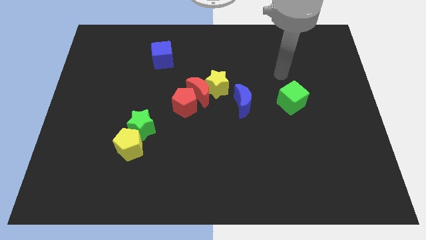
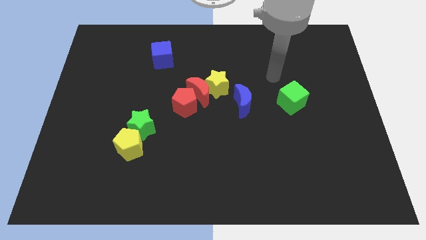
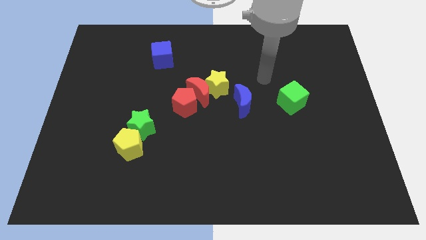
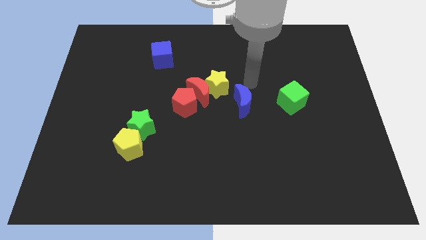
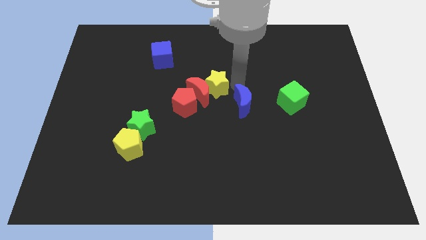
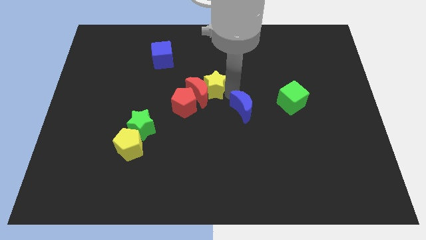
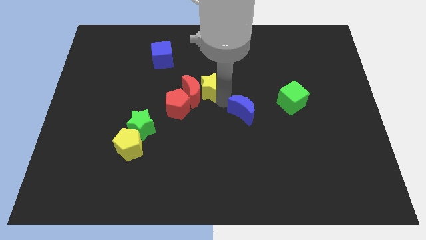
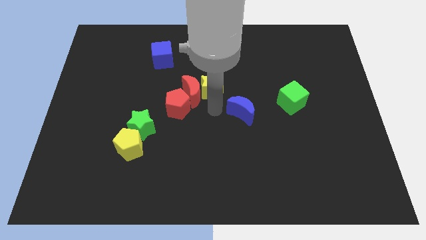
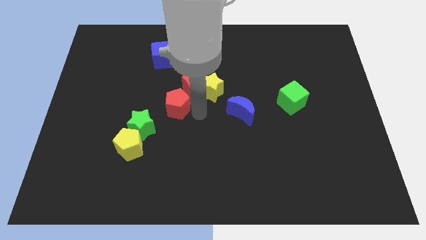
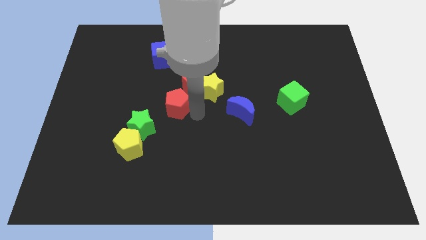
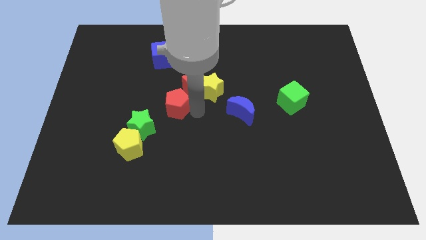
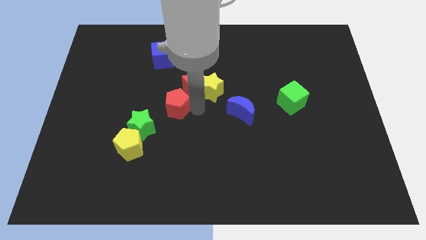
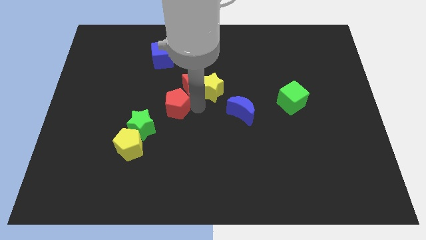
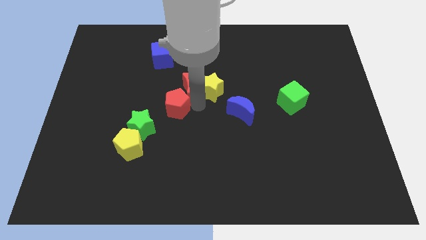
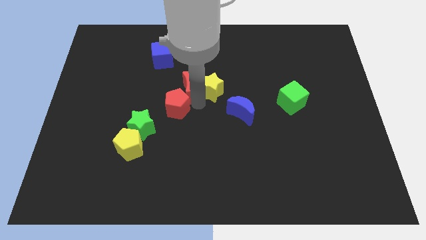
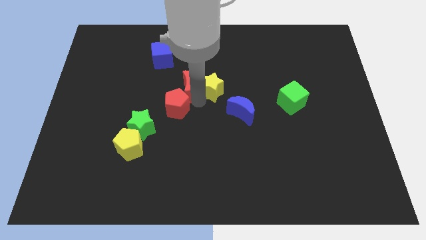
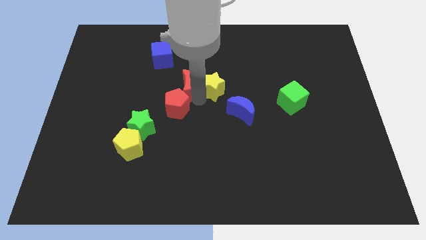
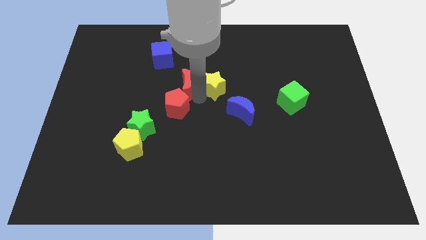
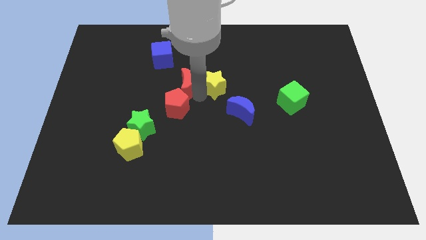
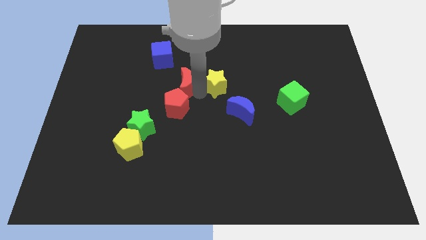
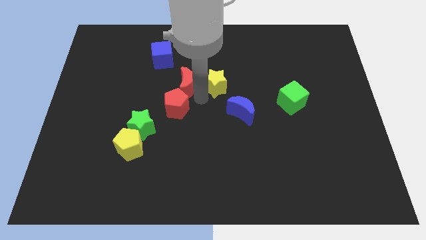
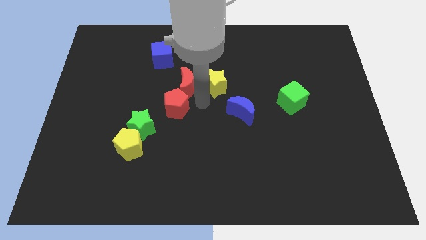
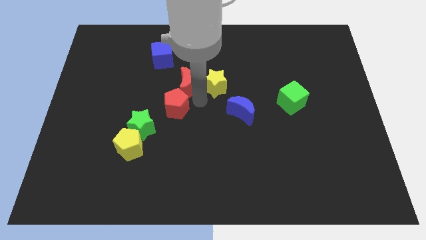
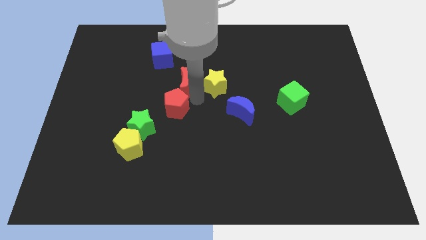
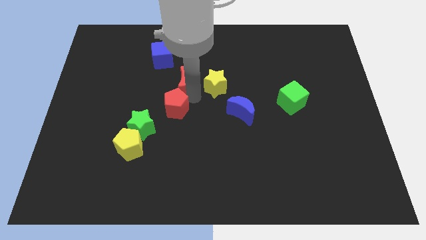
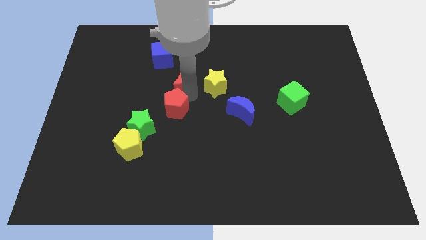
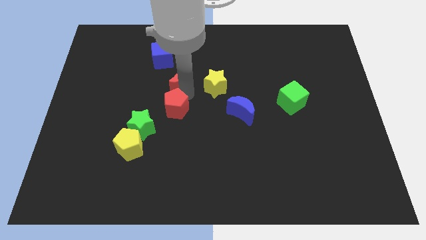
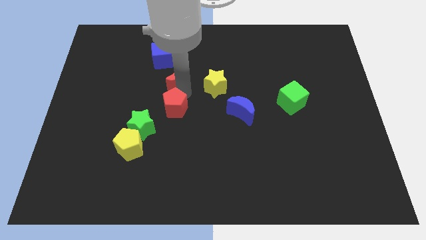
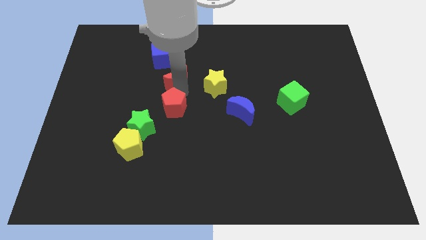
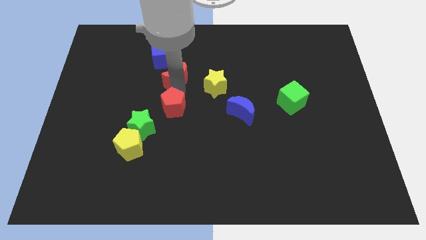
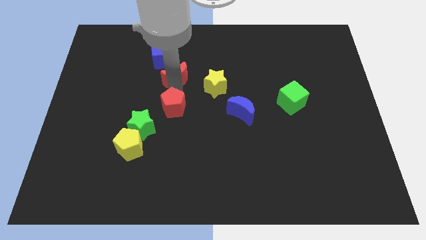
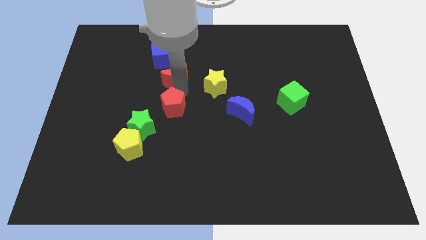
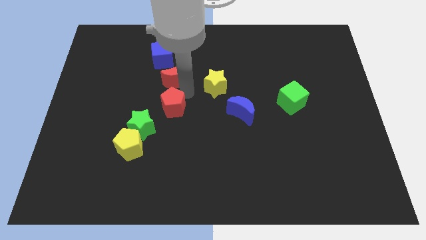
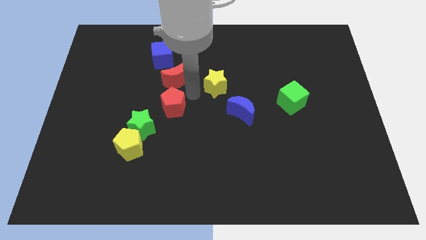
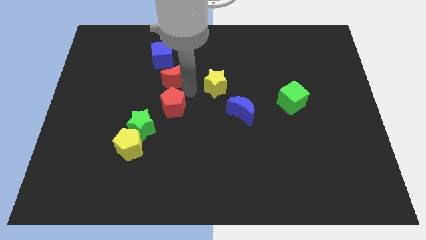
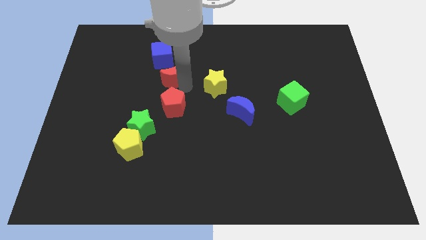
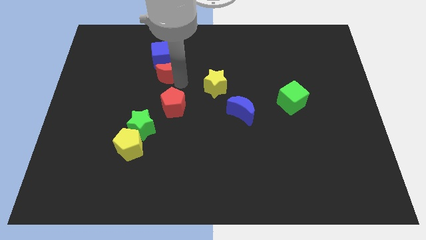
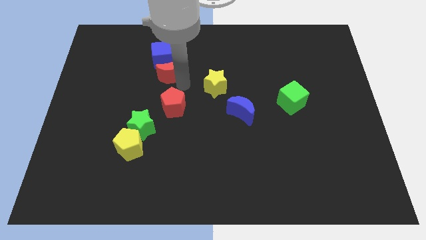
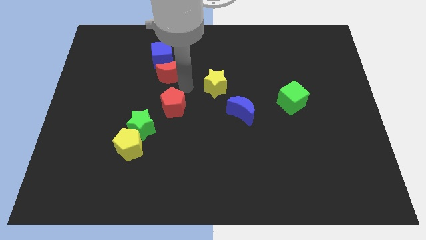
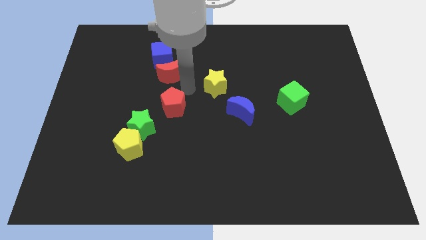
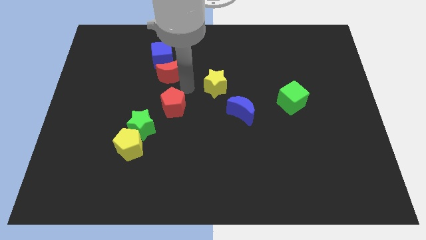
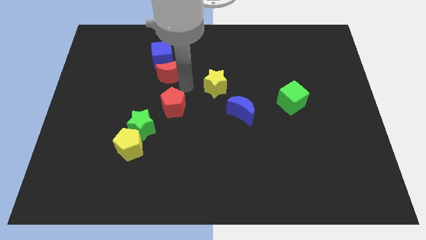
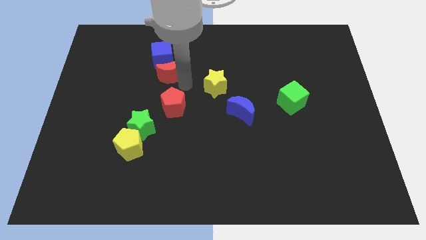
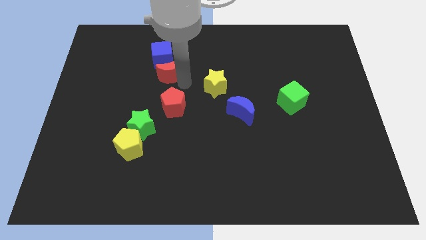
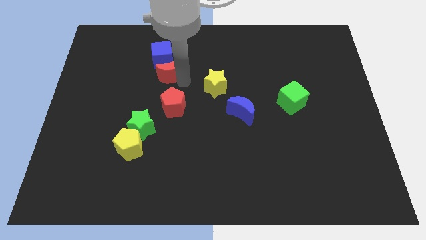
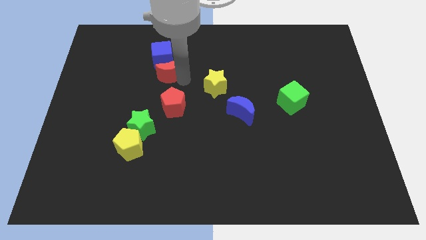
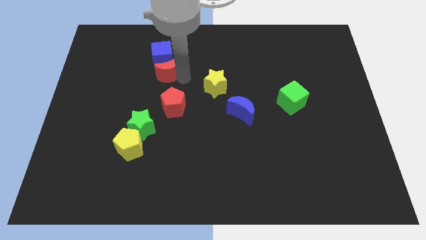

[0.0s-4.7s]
move the red moon away from the yellow star and red pentagon

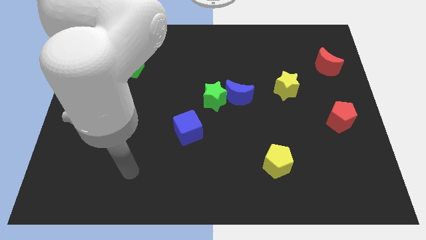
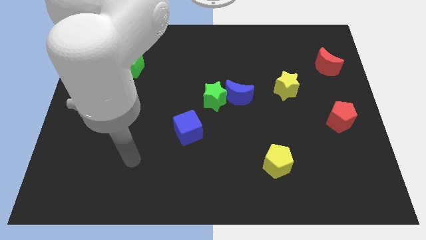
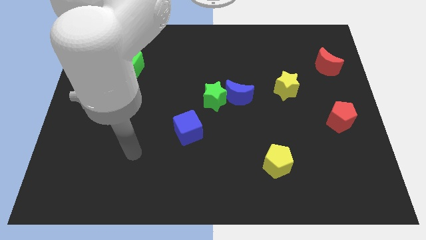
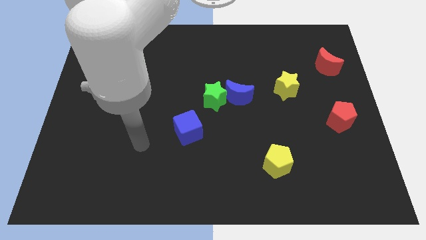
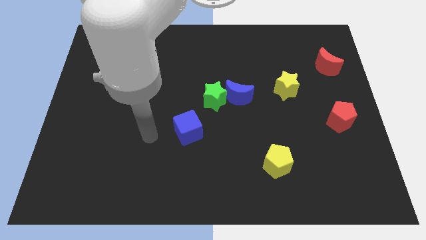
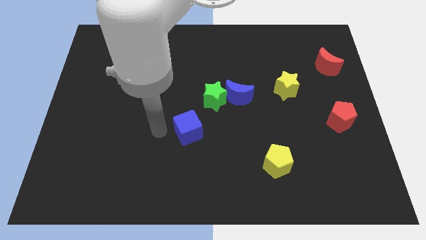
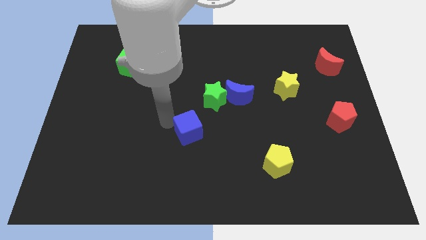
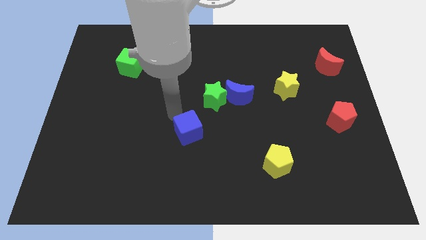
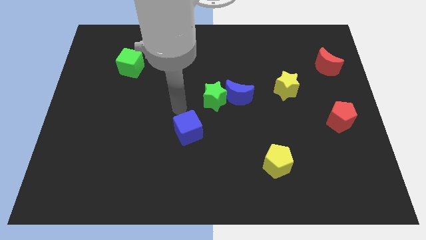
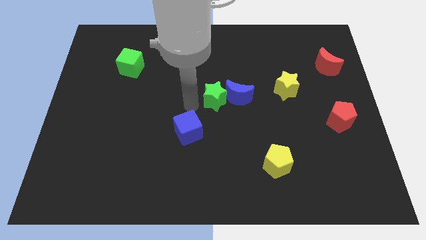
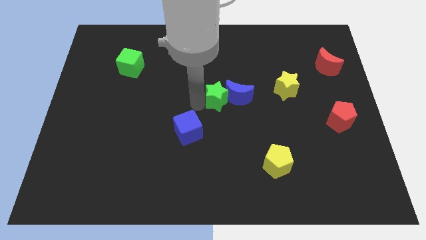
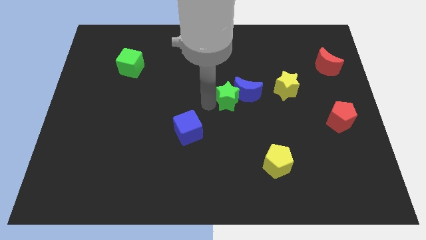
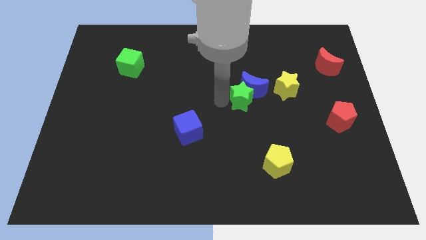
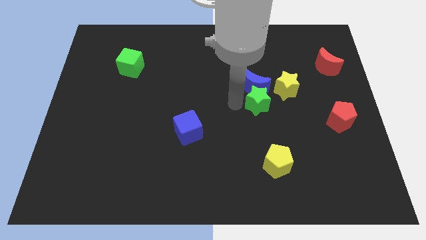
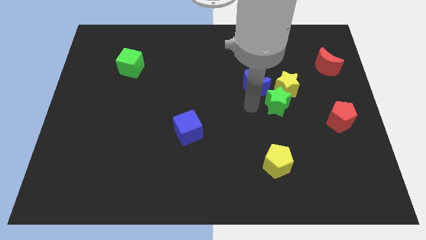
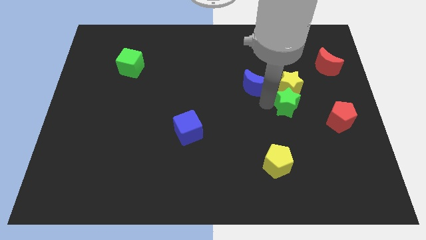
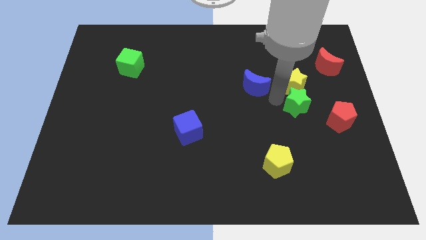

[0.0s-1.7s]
pull the blue moon apart from the green star

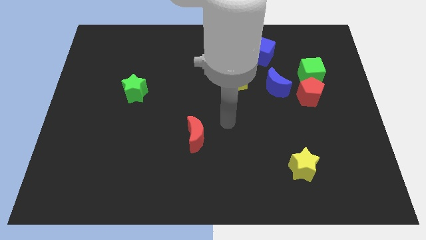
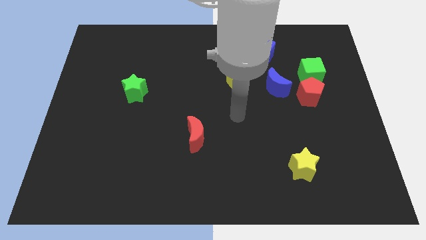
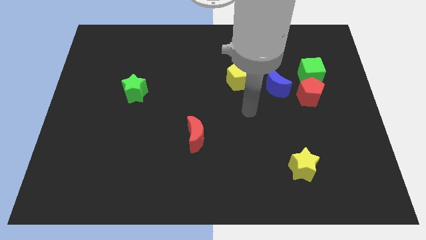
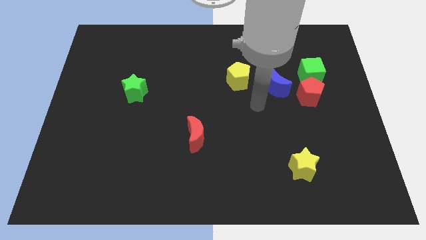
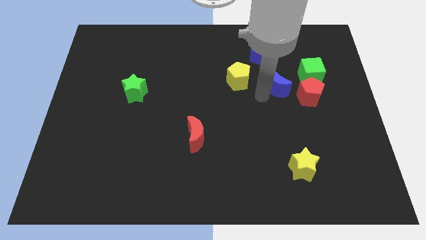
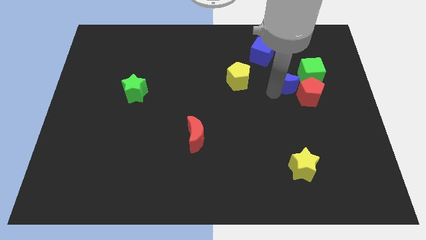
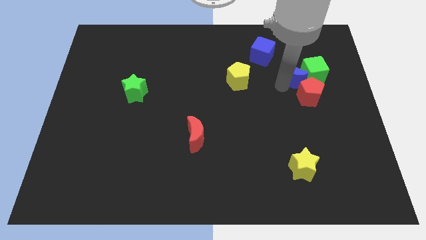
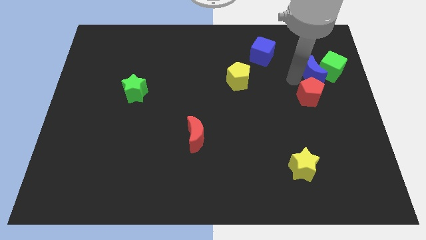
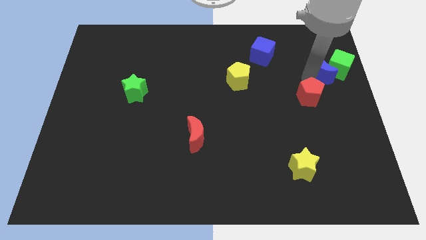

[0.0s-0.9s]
separate the red pentagon from the green cube and blue moon

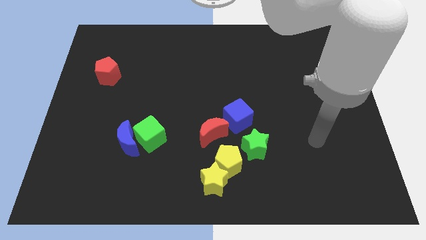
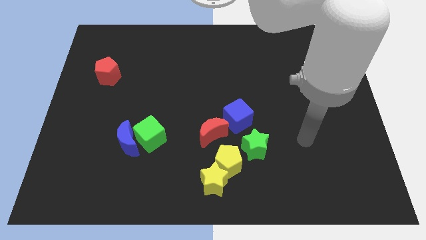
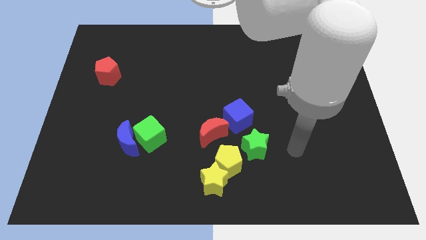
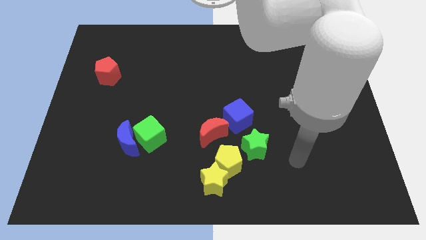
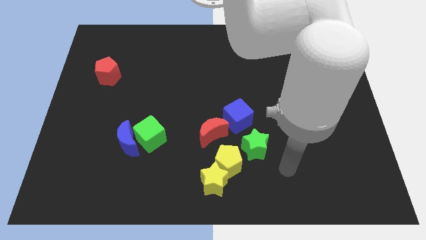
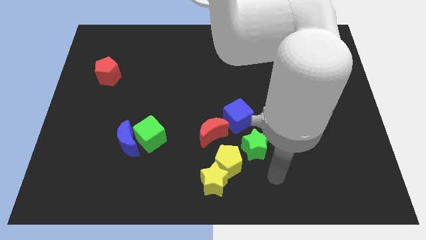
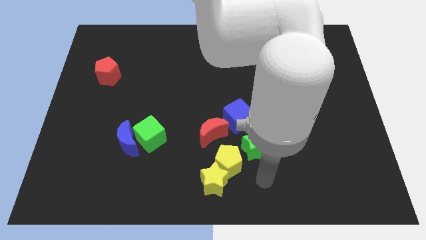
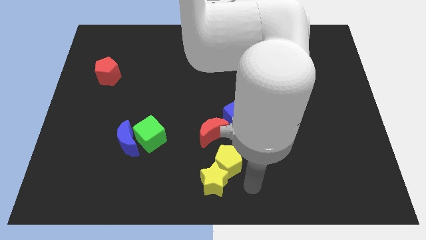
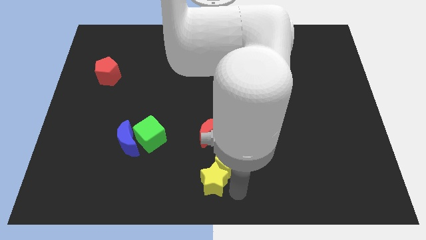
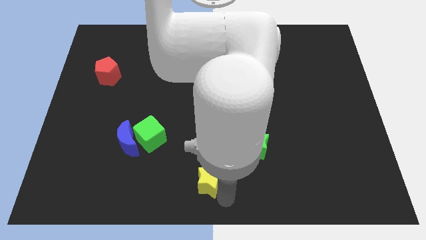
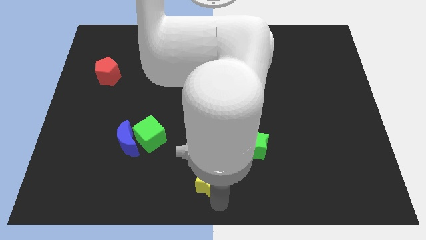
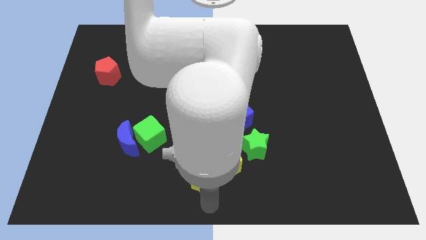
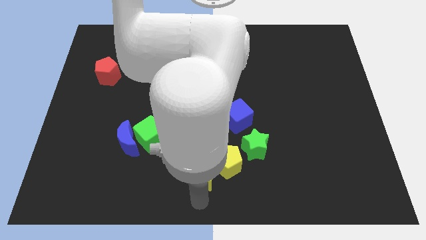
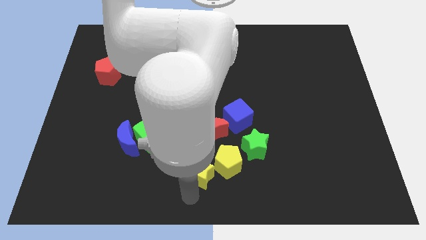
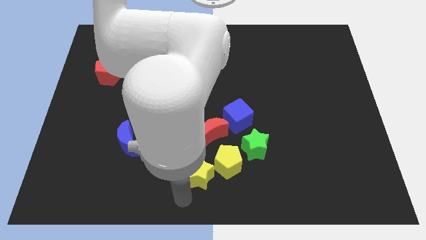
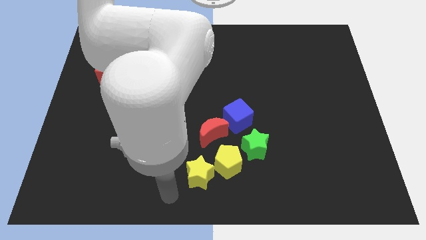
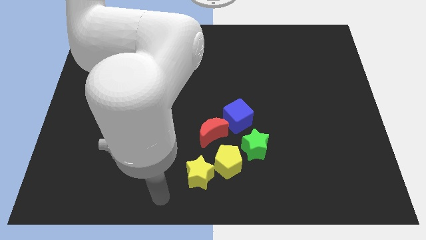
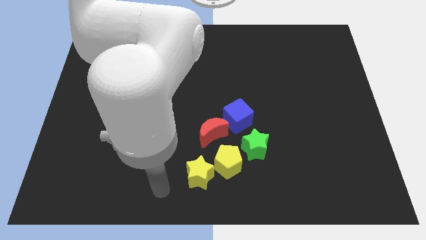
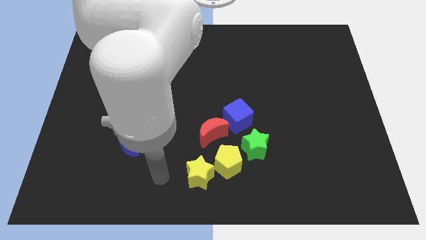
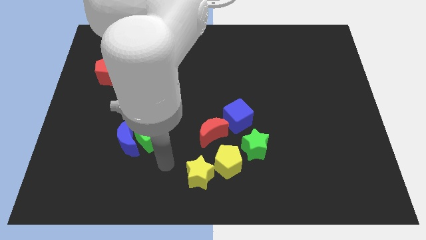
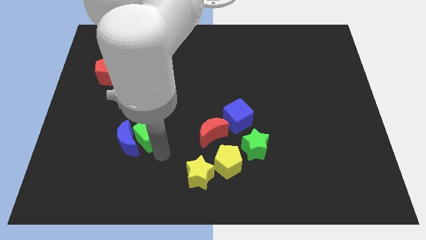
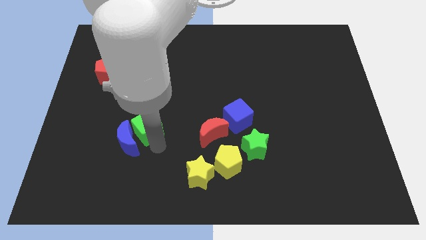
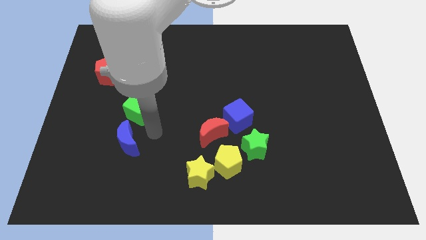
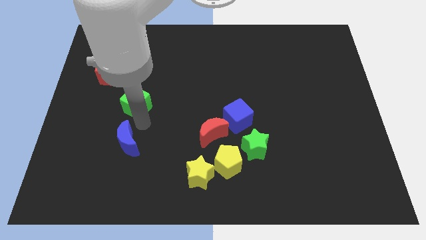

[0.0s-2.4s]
separate the blue moon from the green cube
